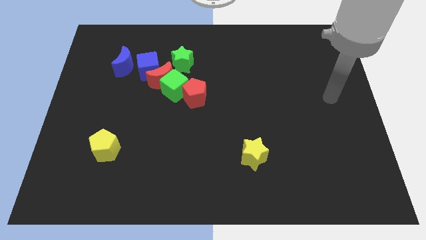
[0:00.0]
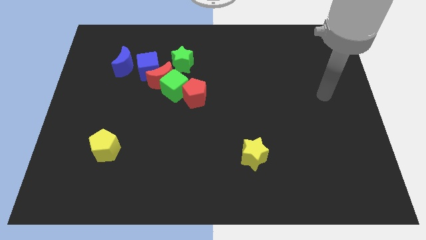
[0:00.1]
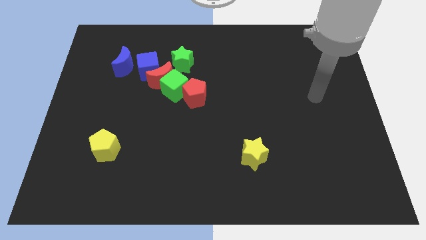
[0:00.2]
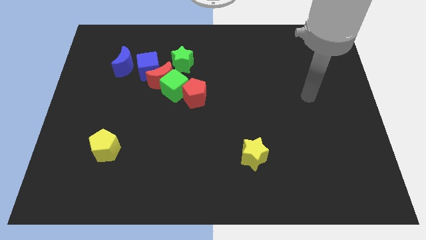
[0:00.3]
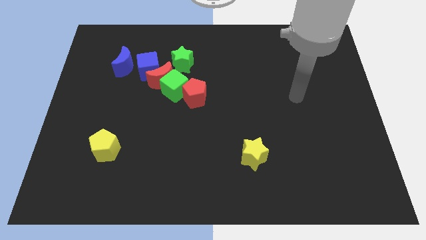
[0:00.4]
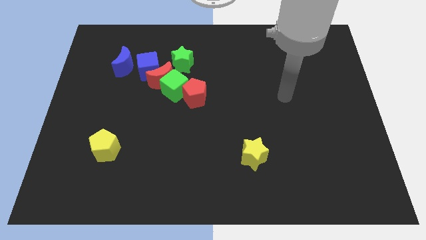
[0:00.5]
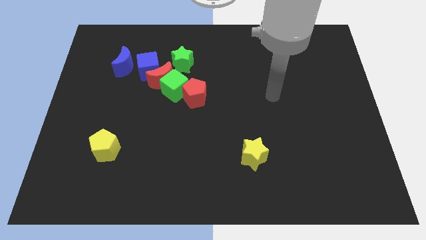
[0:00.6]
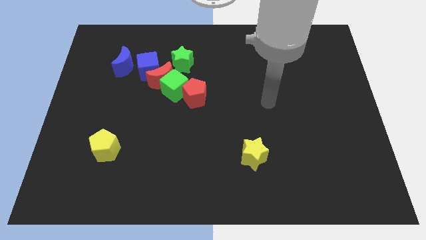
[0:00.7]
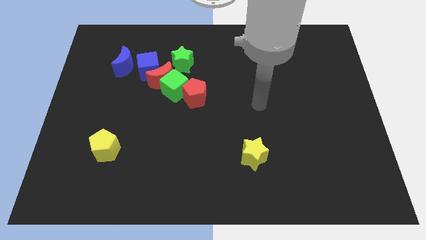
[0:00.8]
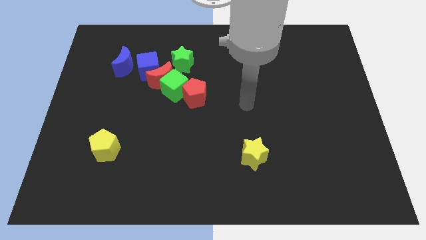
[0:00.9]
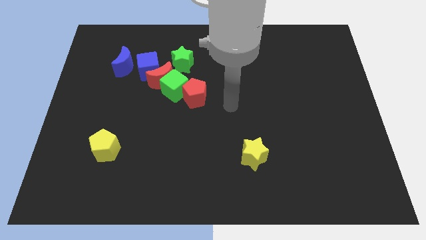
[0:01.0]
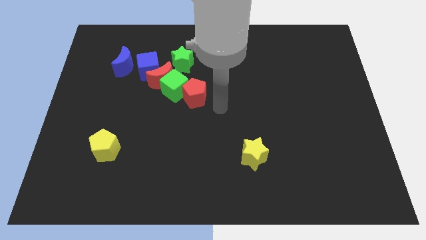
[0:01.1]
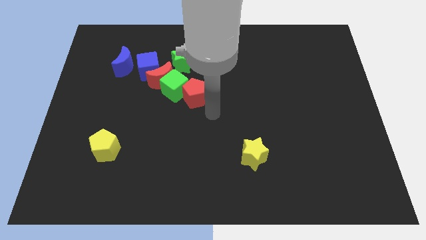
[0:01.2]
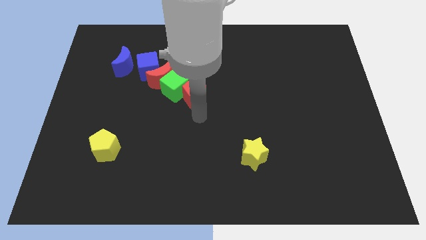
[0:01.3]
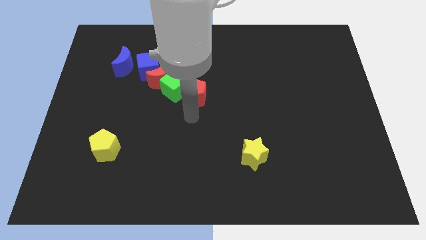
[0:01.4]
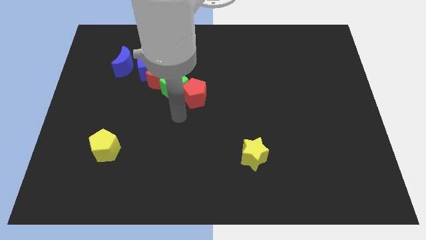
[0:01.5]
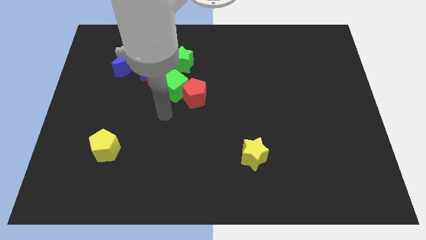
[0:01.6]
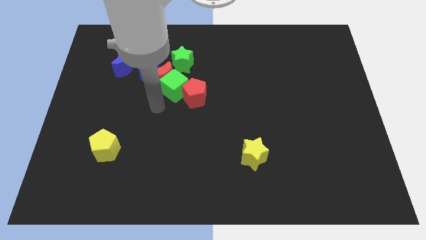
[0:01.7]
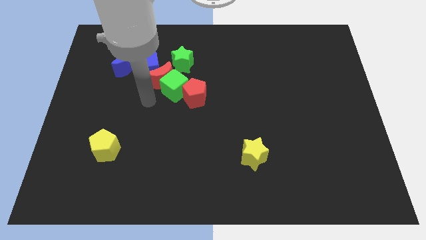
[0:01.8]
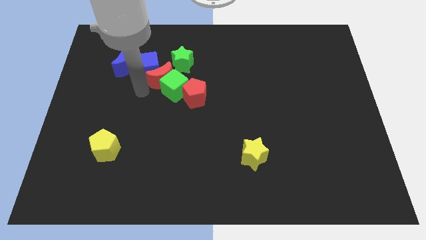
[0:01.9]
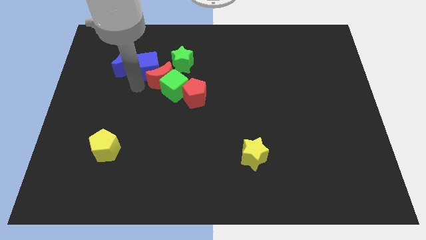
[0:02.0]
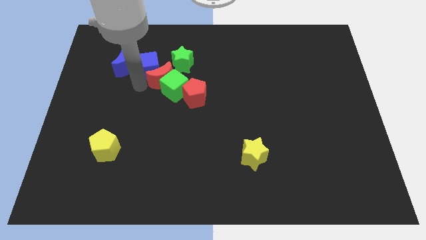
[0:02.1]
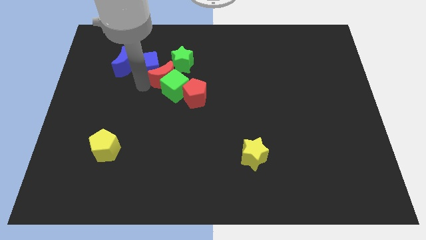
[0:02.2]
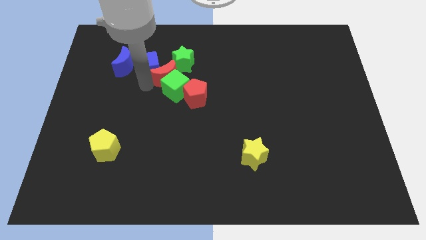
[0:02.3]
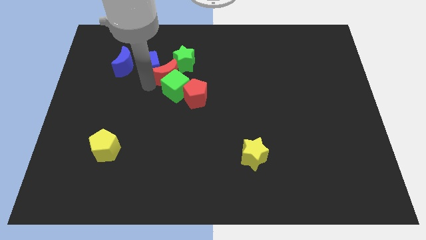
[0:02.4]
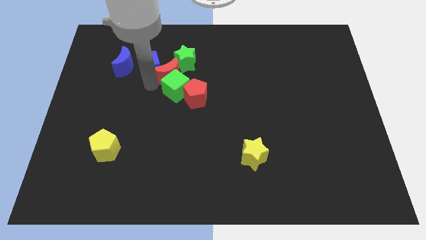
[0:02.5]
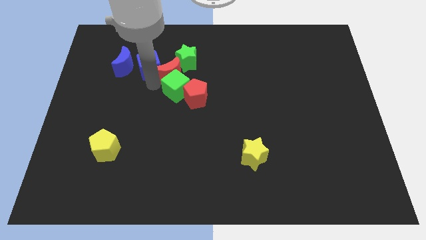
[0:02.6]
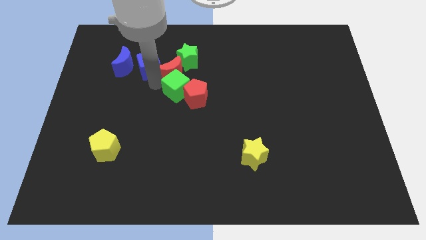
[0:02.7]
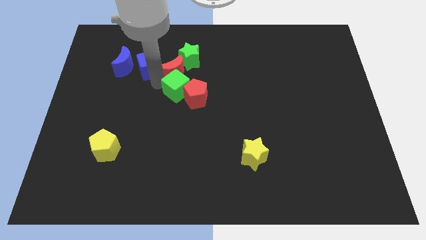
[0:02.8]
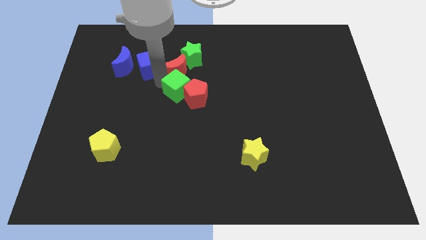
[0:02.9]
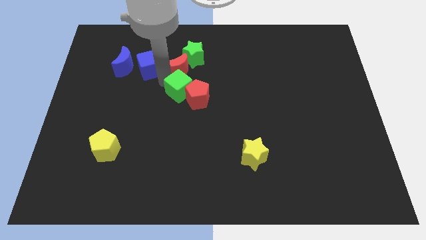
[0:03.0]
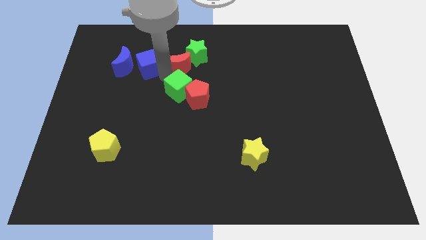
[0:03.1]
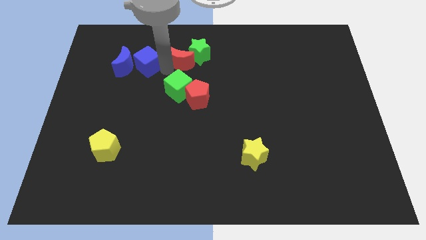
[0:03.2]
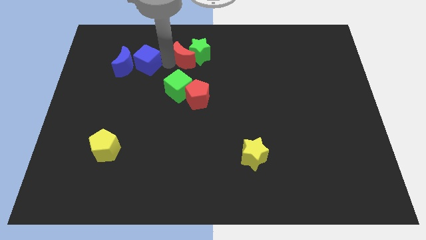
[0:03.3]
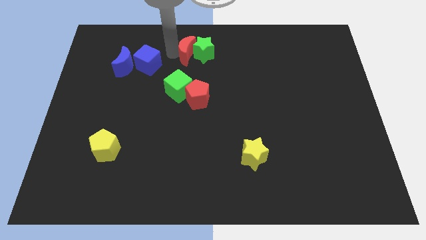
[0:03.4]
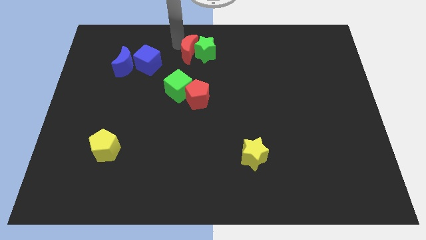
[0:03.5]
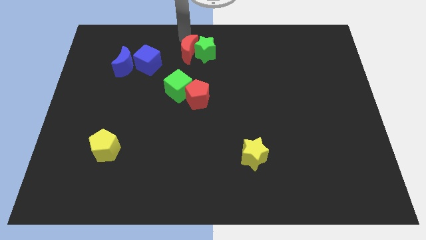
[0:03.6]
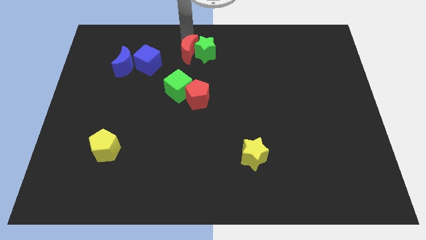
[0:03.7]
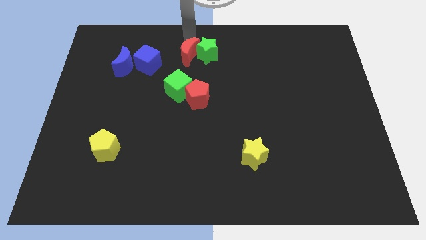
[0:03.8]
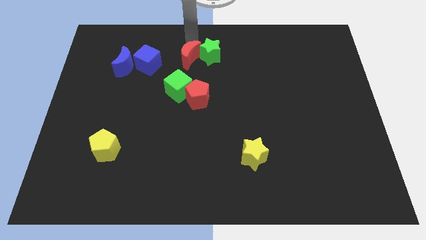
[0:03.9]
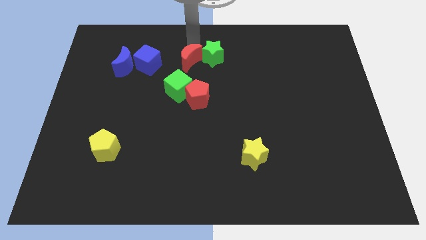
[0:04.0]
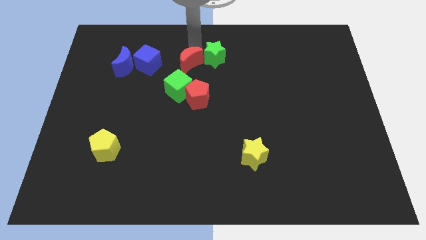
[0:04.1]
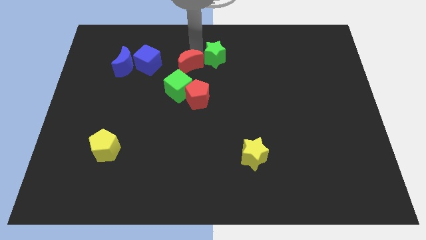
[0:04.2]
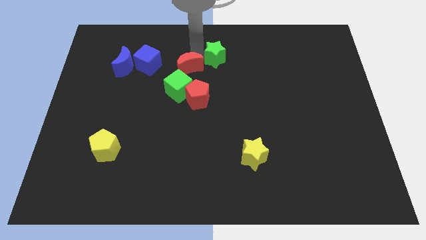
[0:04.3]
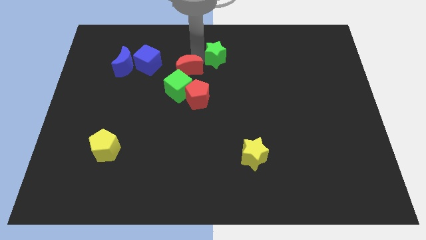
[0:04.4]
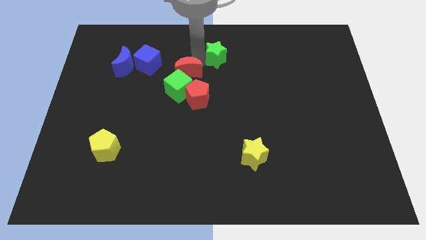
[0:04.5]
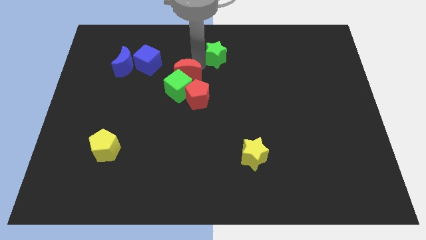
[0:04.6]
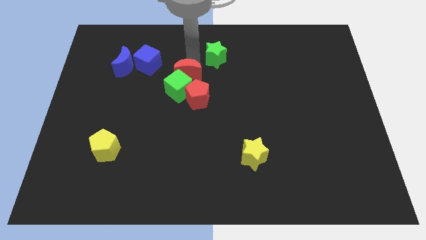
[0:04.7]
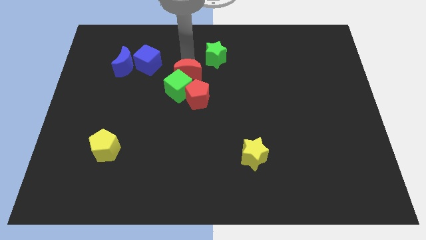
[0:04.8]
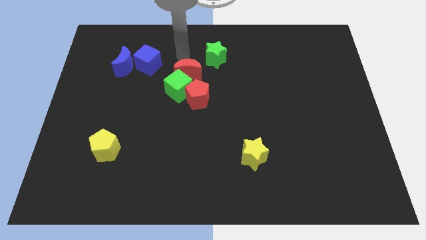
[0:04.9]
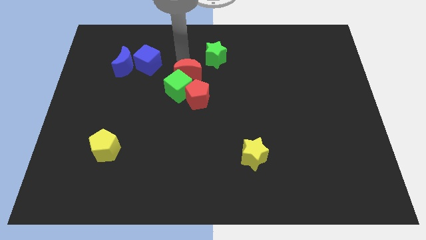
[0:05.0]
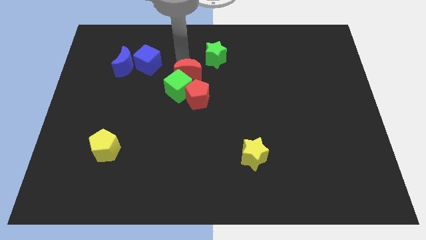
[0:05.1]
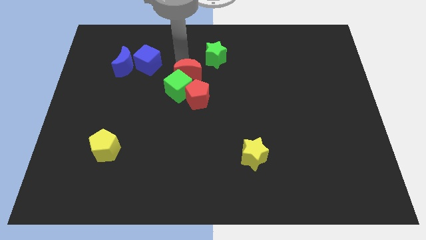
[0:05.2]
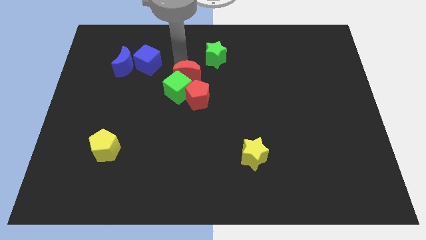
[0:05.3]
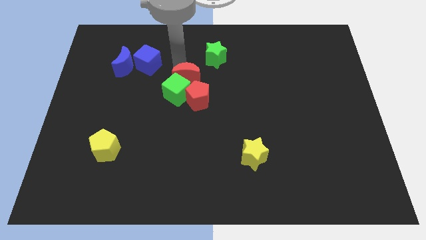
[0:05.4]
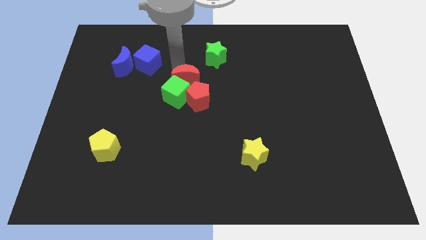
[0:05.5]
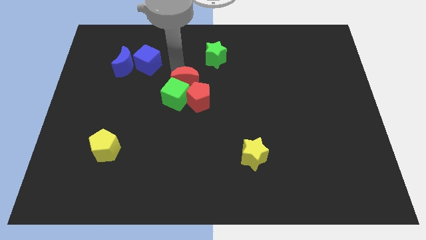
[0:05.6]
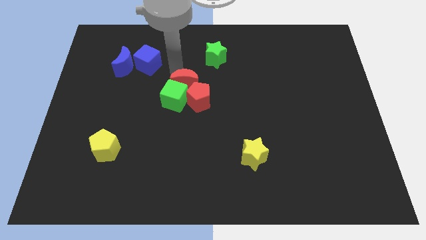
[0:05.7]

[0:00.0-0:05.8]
put the red moon to the red pentagon

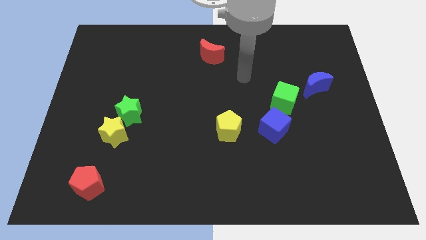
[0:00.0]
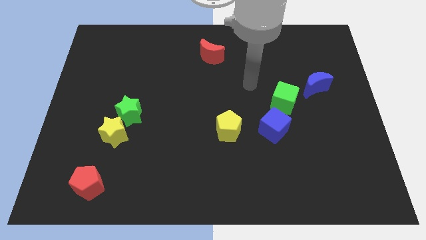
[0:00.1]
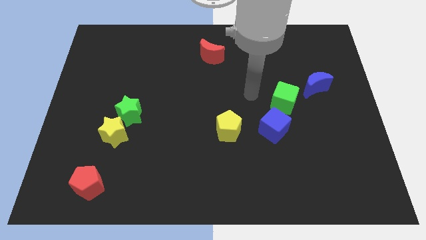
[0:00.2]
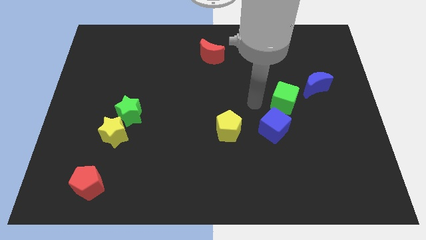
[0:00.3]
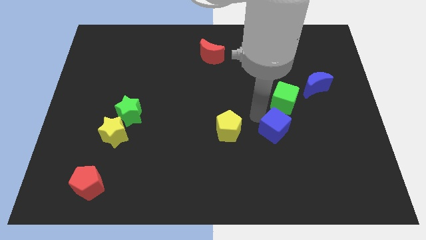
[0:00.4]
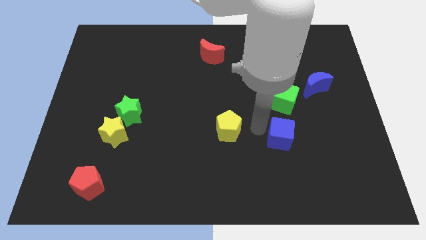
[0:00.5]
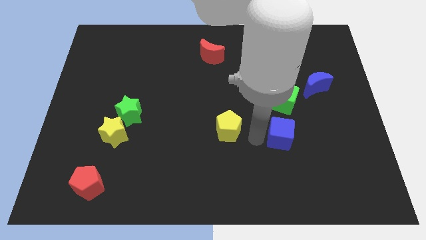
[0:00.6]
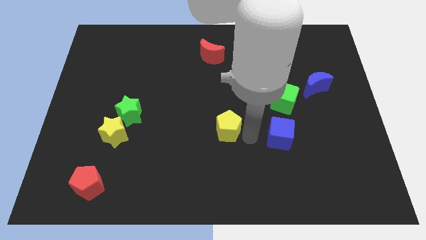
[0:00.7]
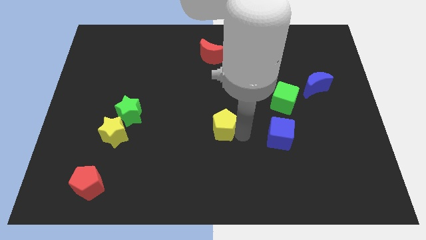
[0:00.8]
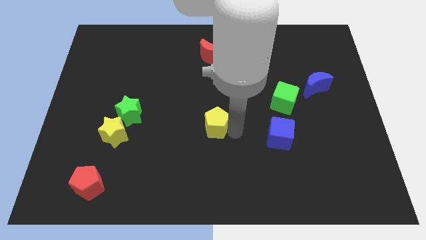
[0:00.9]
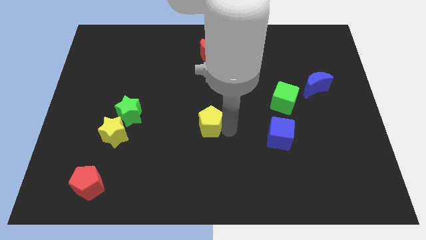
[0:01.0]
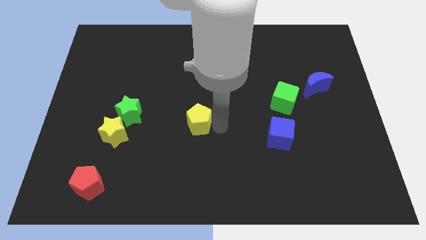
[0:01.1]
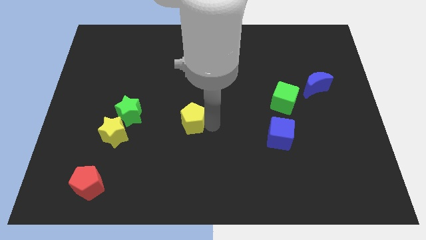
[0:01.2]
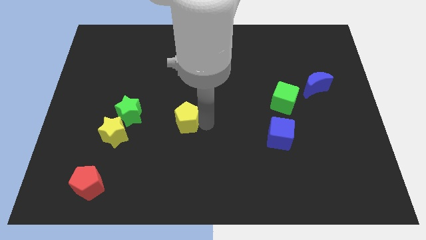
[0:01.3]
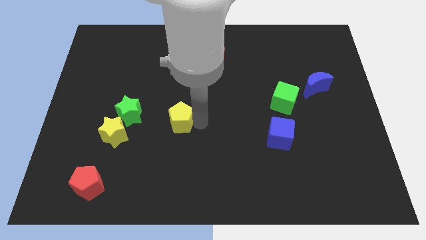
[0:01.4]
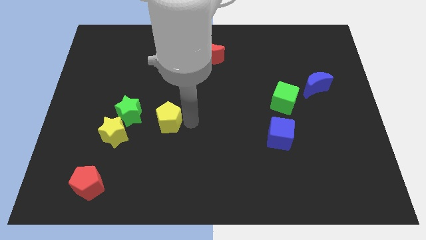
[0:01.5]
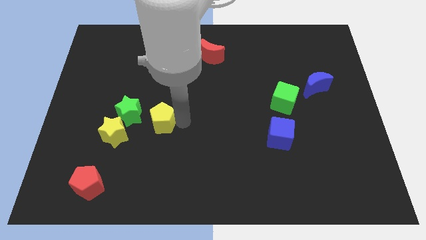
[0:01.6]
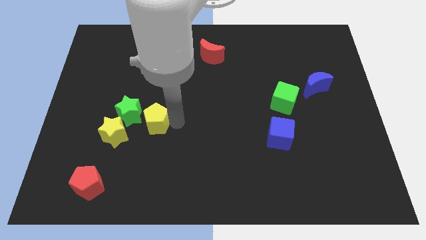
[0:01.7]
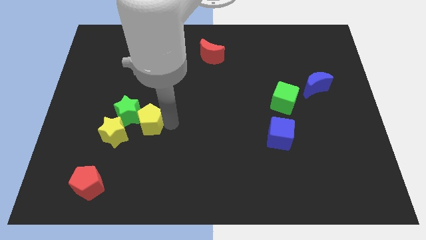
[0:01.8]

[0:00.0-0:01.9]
move the yellow pentagon towards the green star

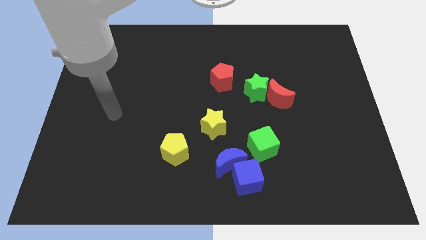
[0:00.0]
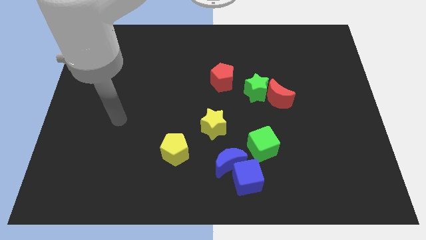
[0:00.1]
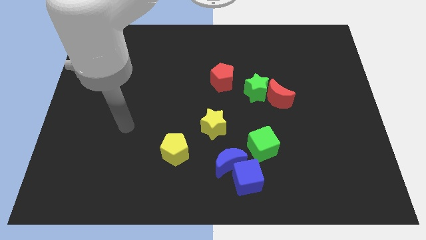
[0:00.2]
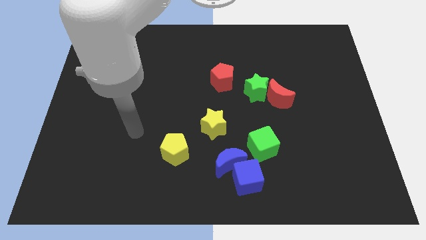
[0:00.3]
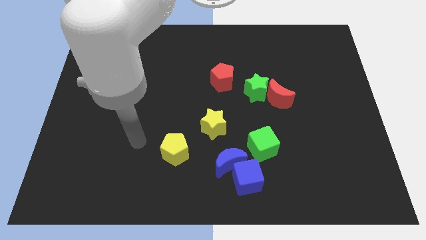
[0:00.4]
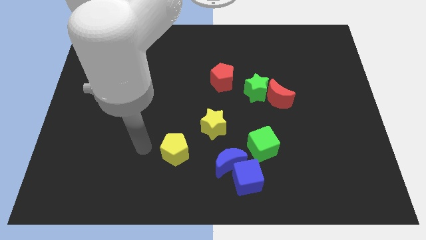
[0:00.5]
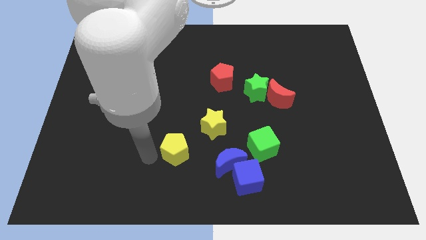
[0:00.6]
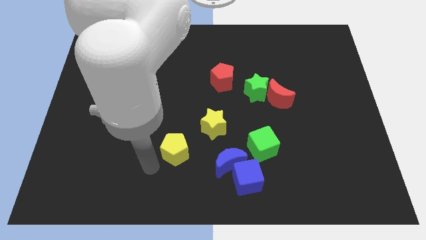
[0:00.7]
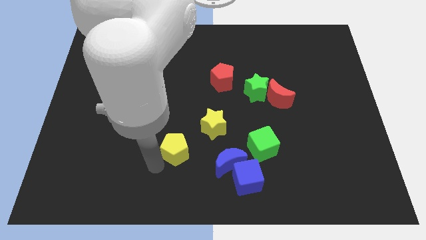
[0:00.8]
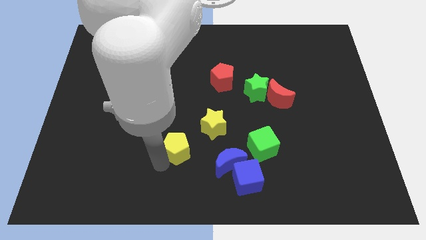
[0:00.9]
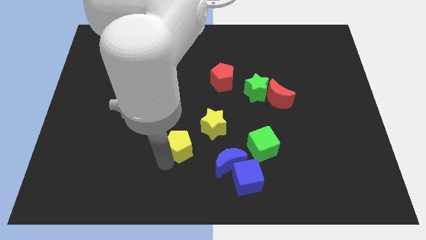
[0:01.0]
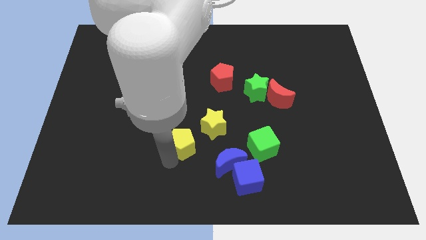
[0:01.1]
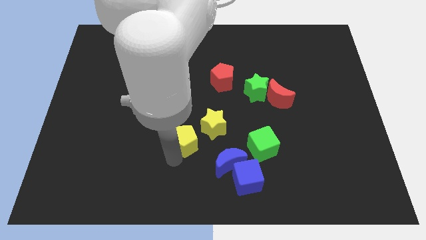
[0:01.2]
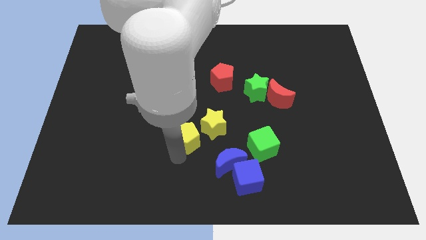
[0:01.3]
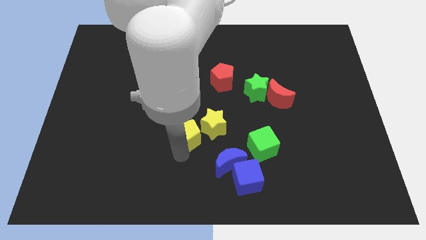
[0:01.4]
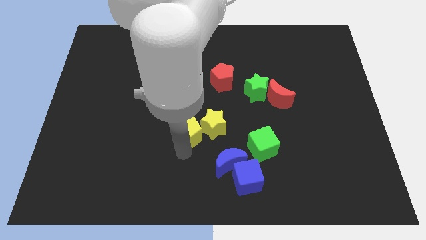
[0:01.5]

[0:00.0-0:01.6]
push the yellow pentagon next to the yellow star
